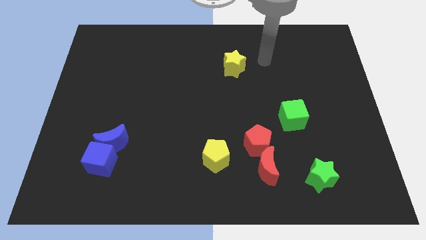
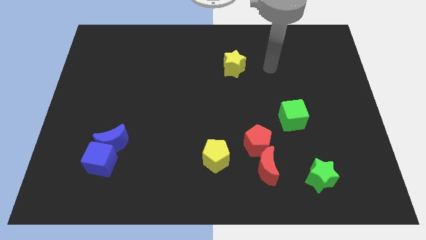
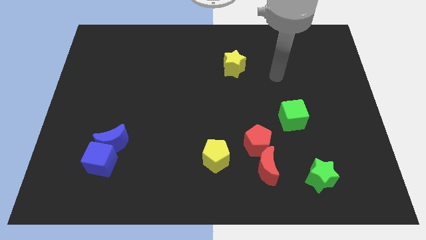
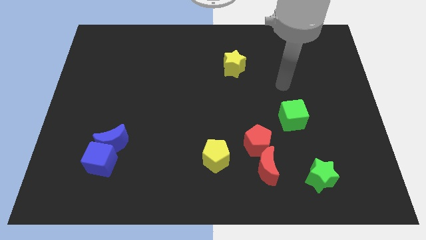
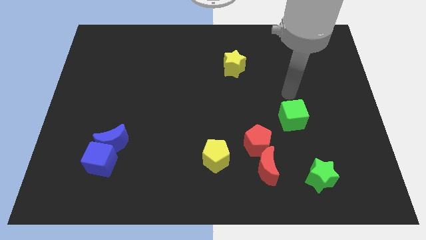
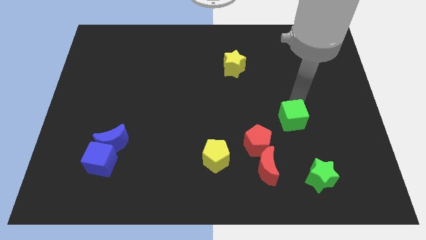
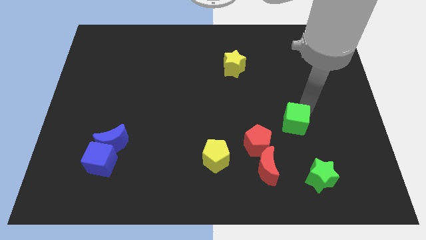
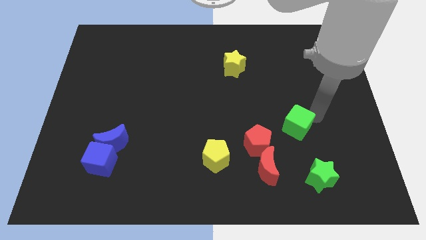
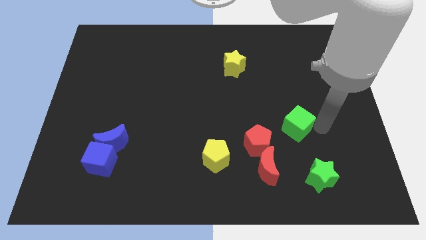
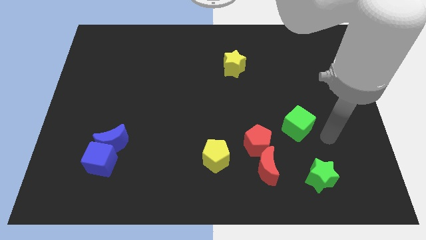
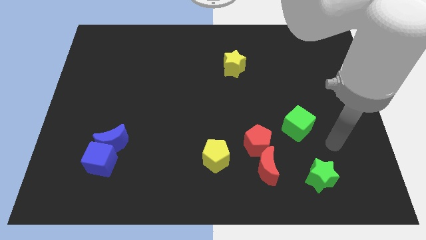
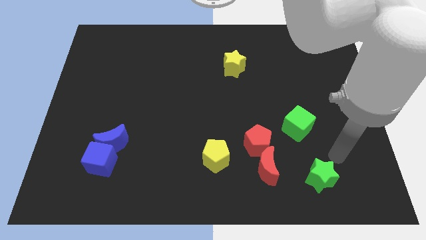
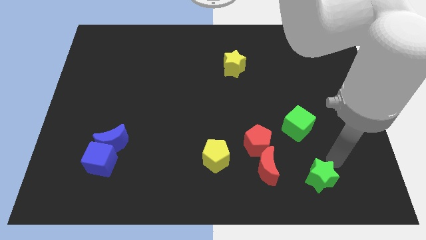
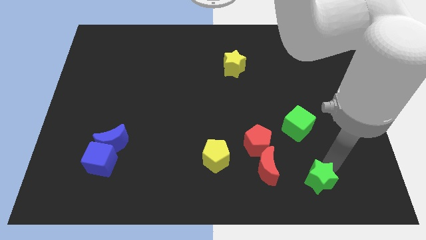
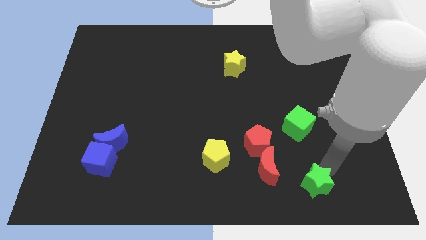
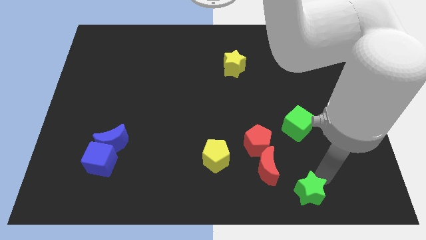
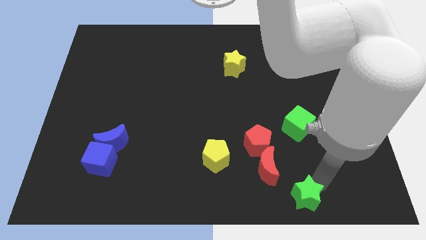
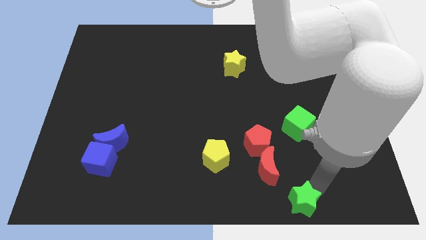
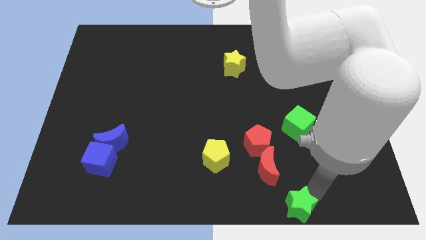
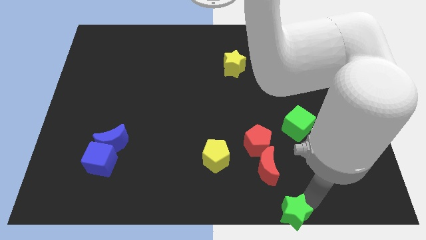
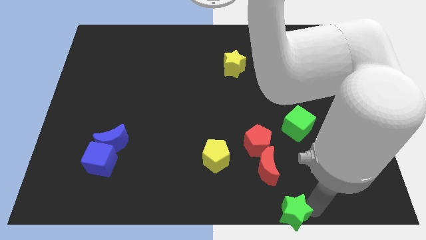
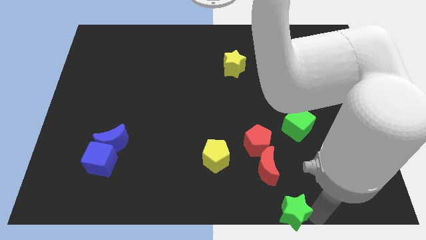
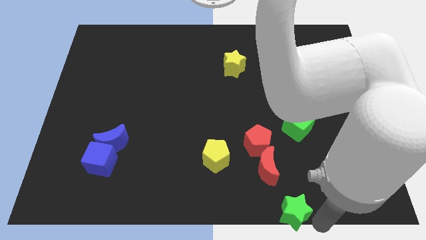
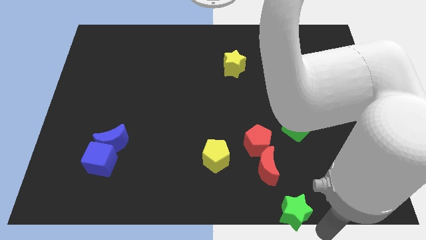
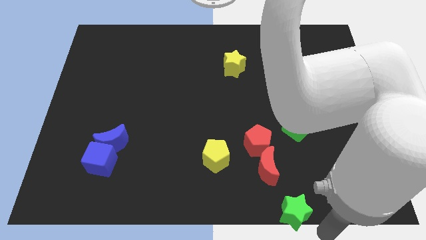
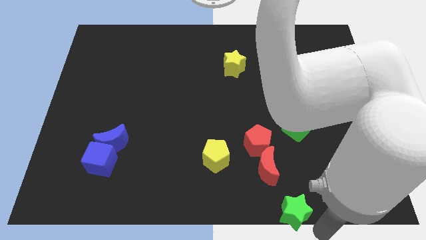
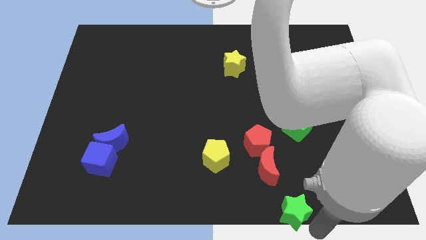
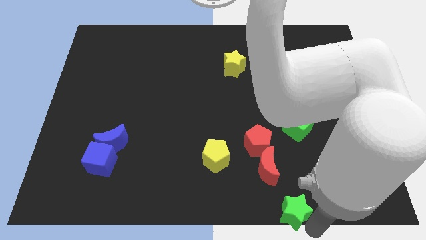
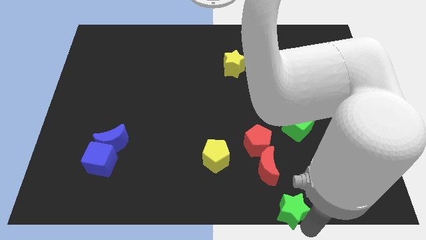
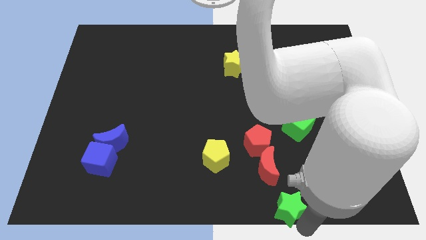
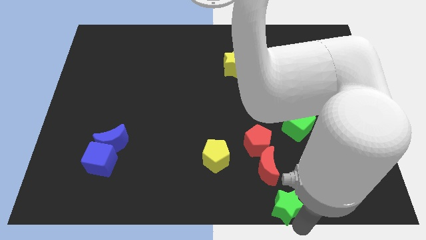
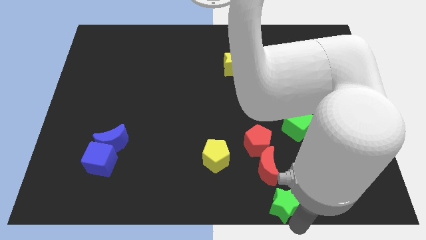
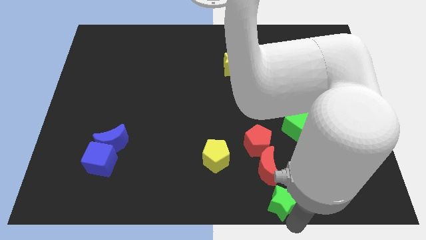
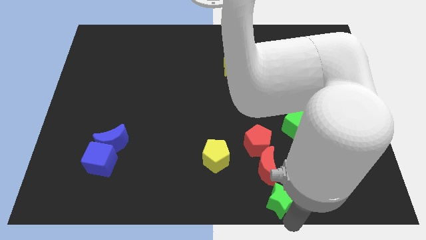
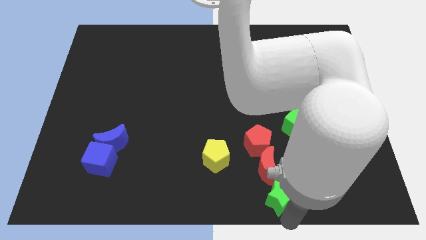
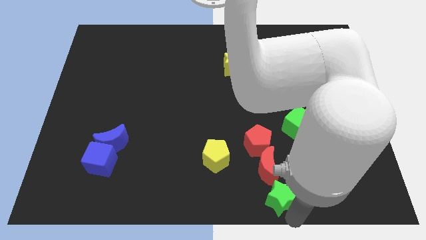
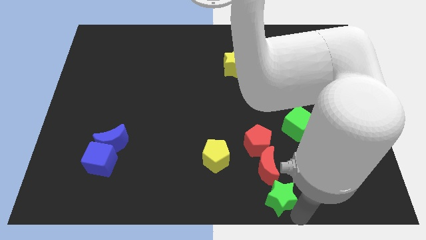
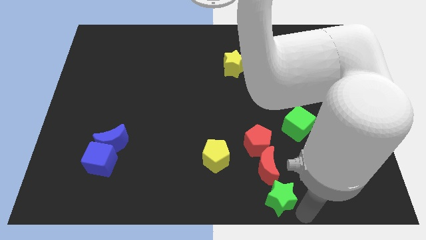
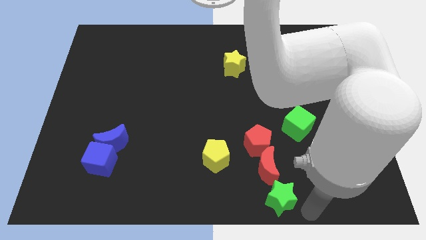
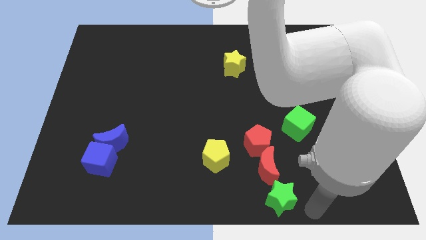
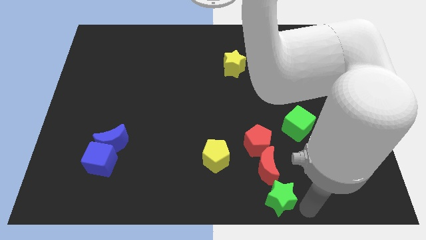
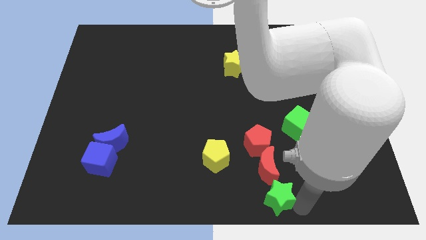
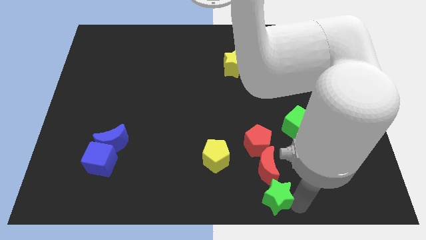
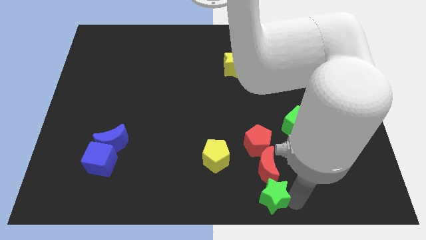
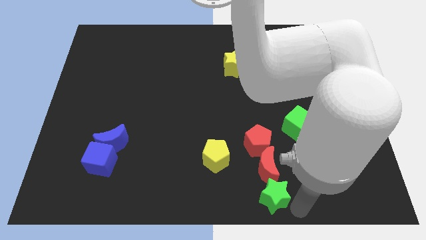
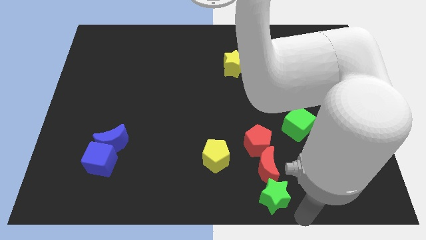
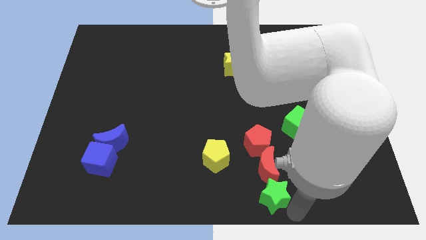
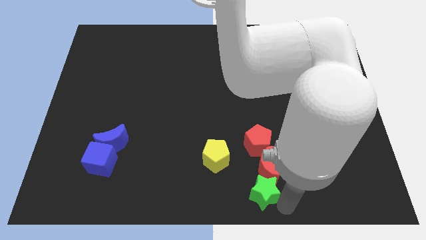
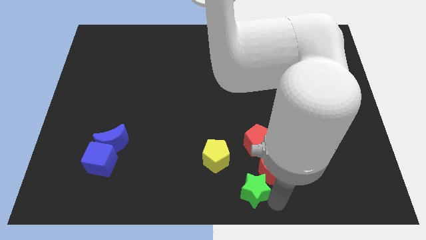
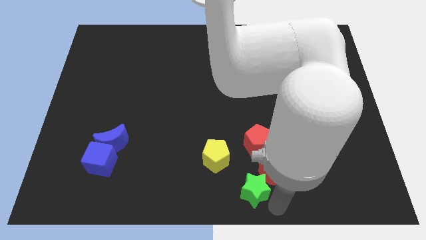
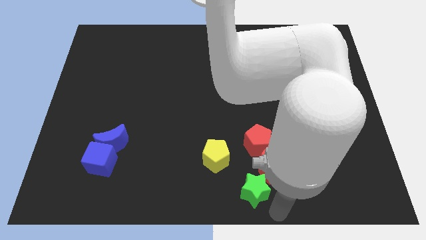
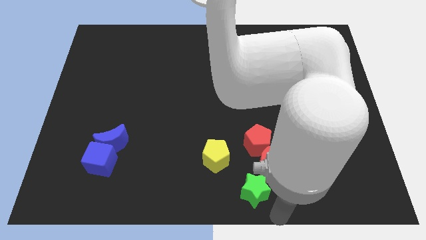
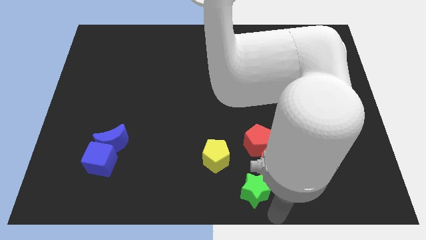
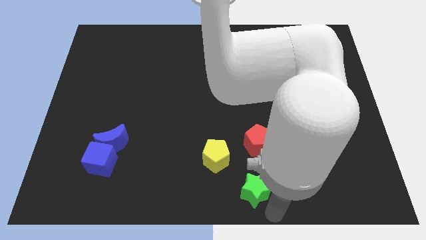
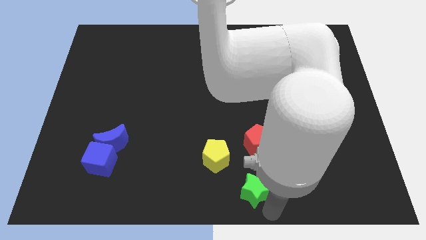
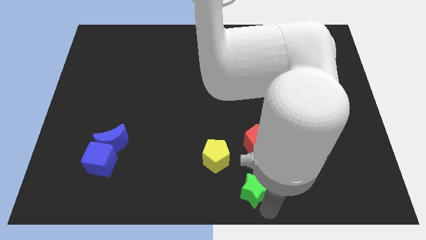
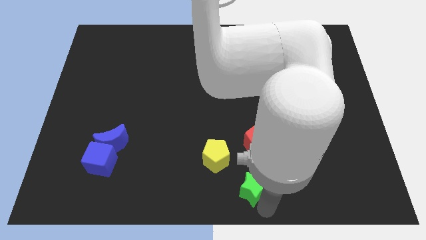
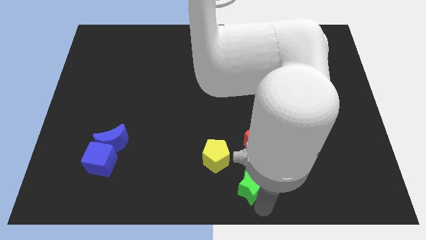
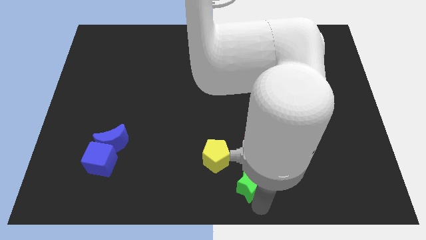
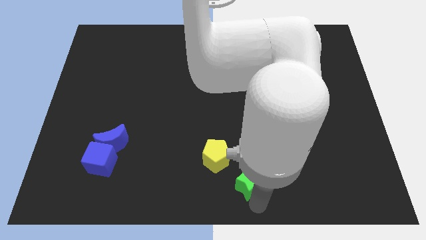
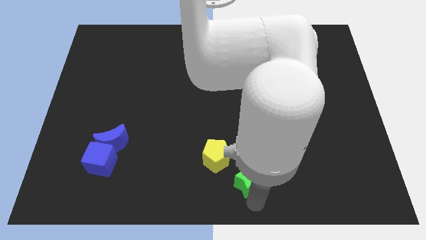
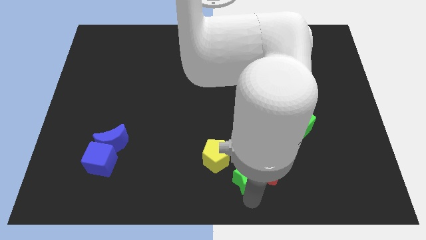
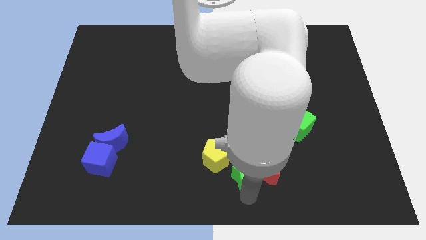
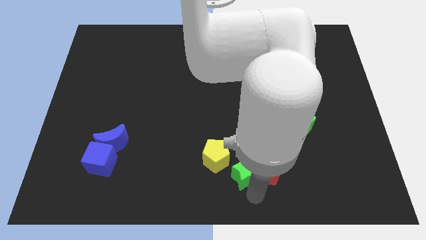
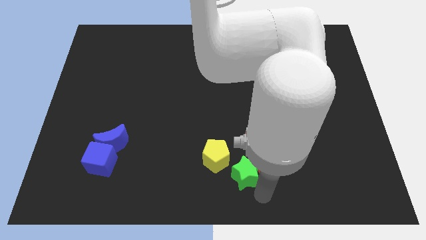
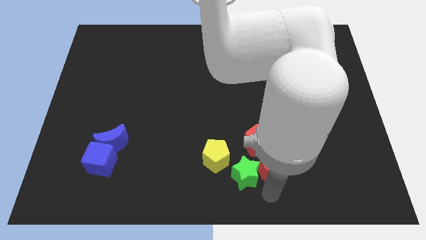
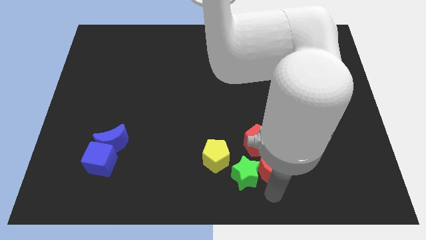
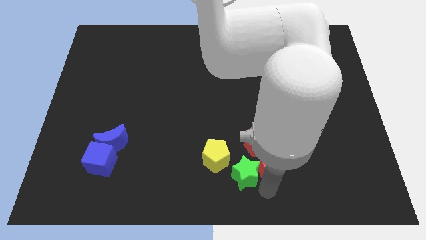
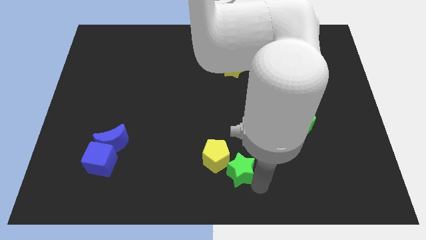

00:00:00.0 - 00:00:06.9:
slide the green star next to the yellow pentagon

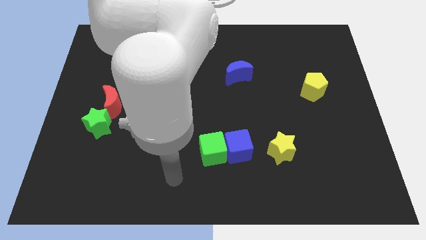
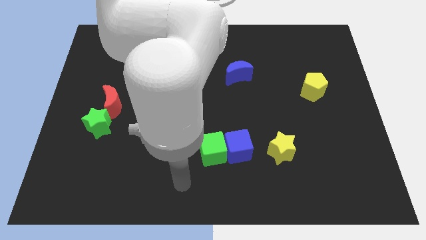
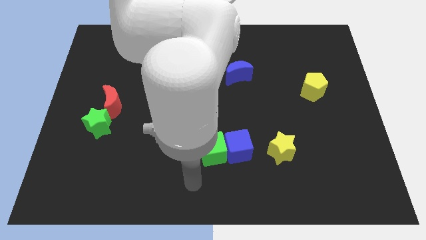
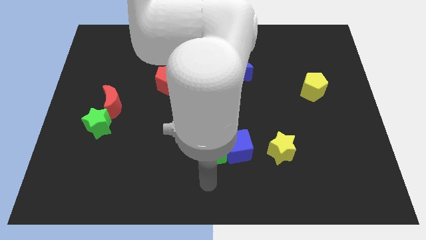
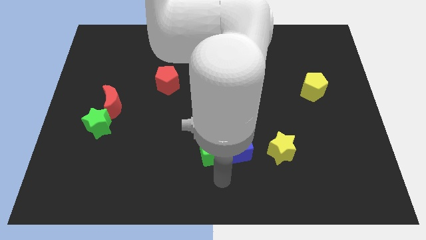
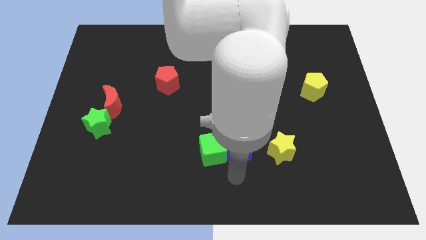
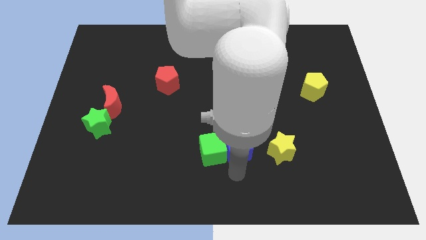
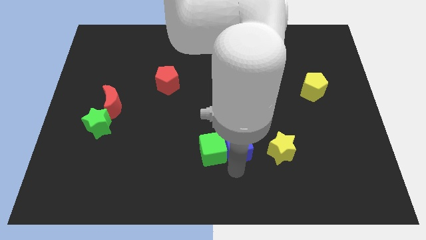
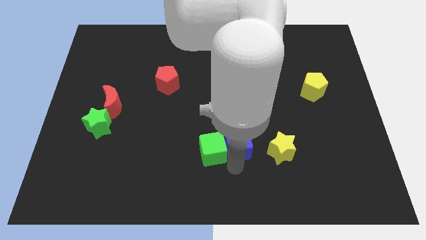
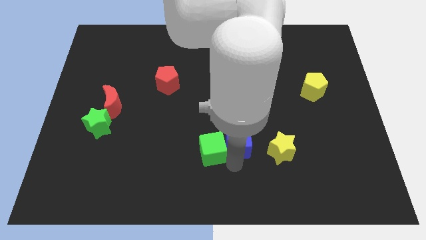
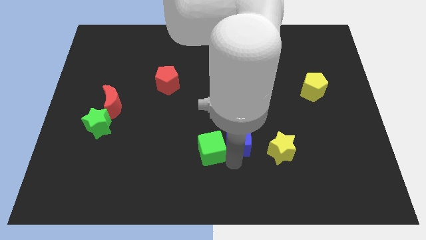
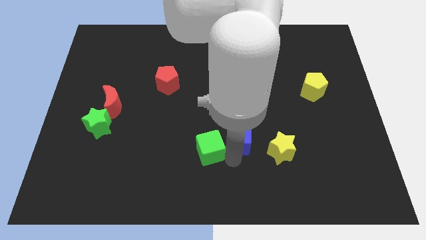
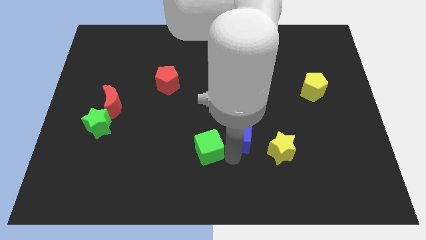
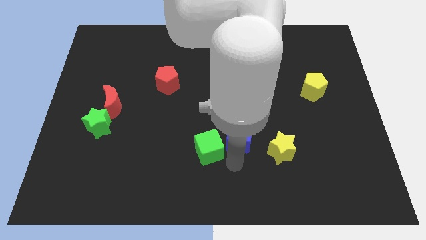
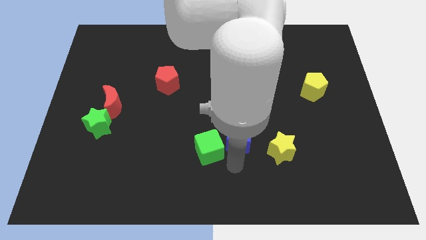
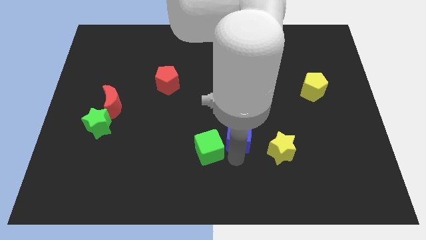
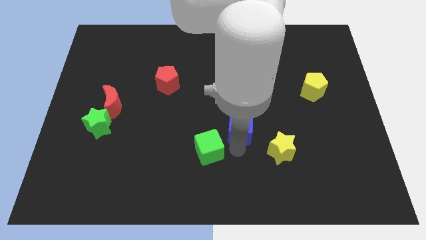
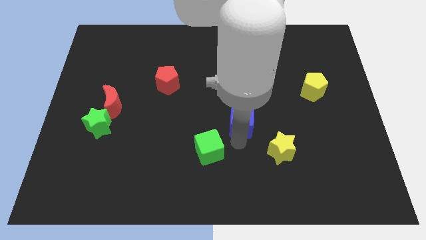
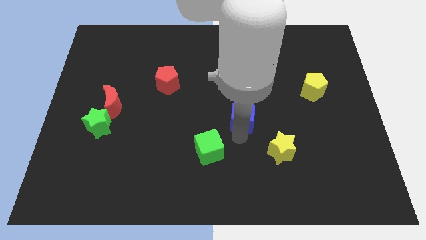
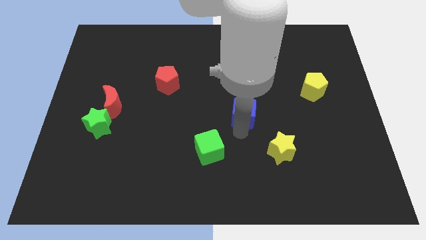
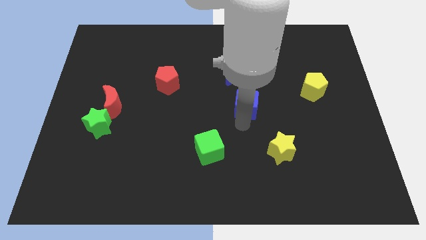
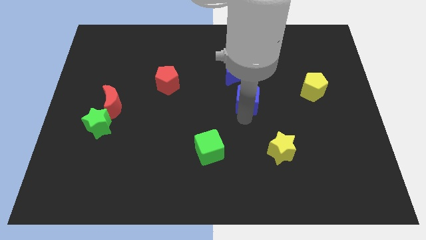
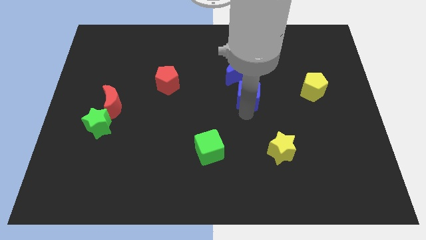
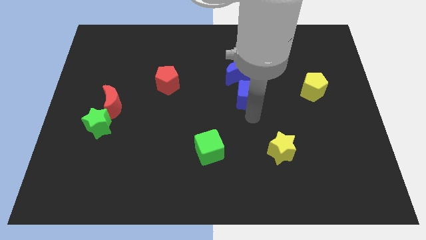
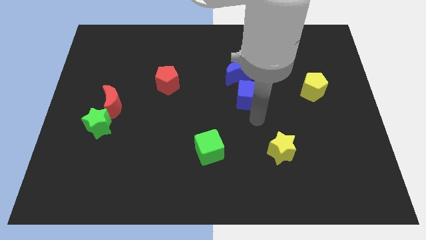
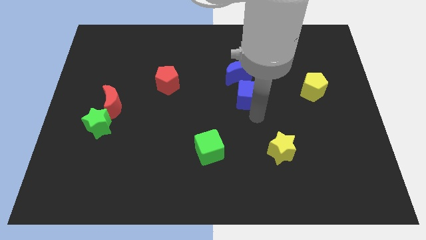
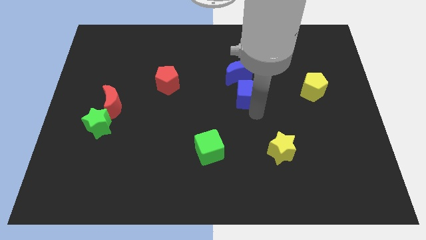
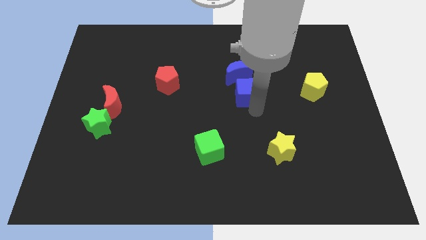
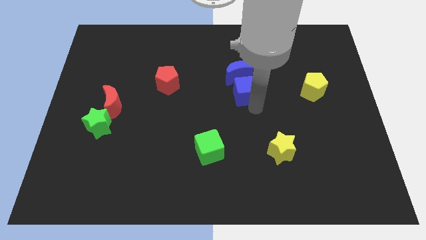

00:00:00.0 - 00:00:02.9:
move the blue cube to the blue moon
